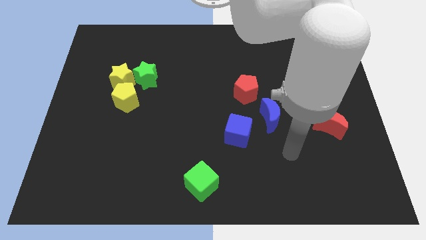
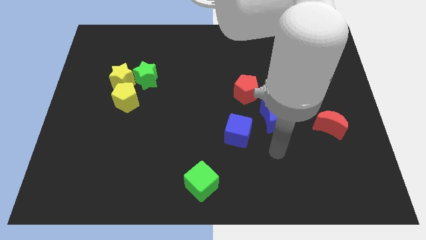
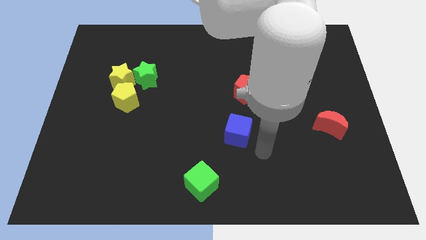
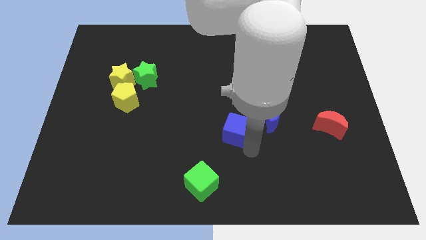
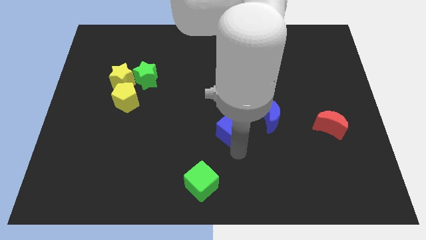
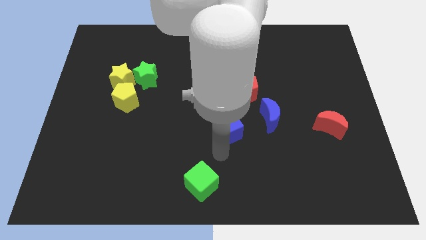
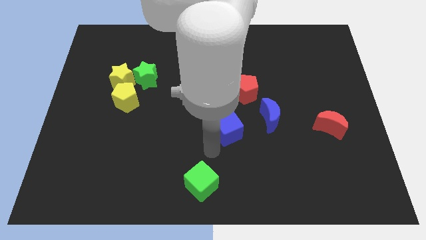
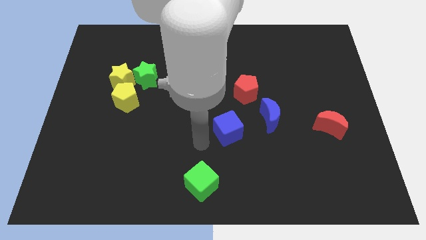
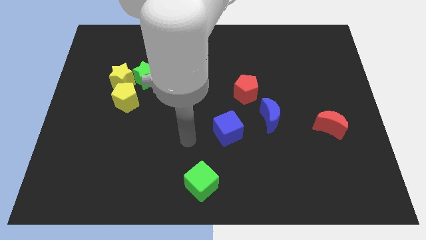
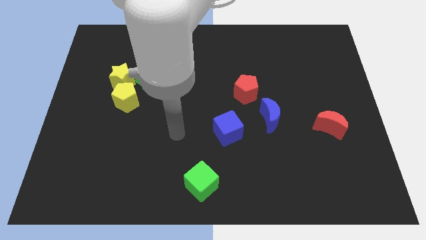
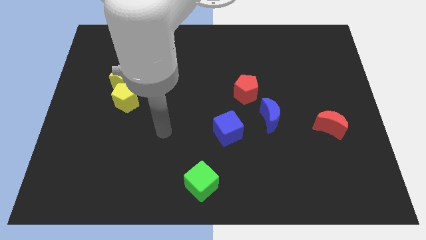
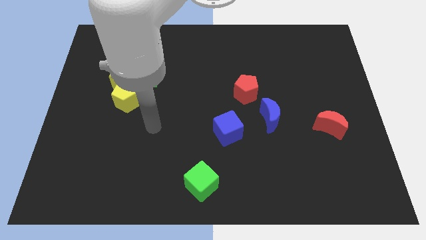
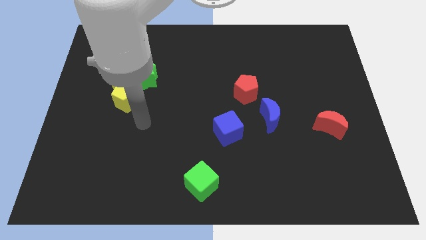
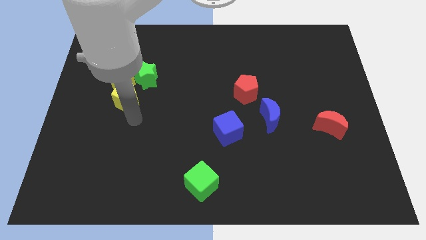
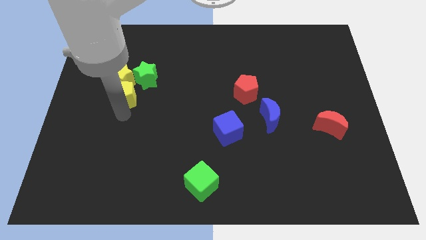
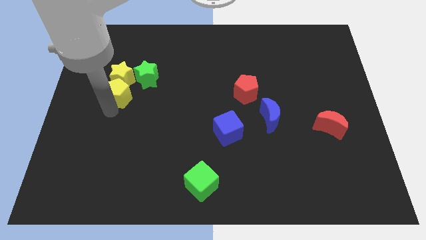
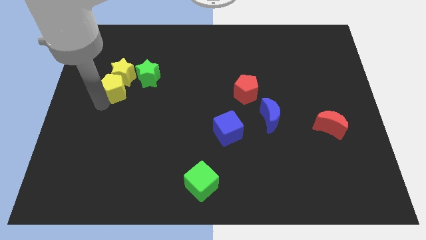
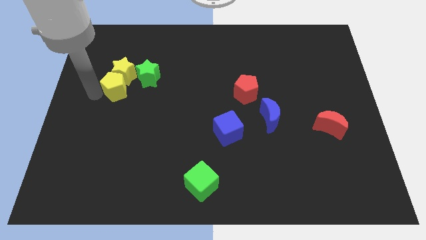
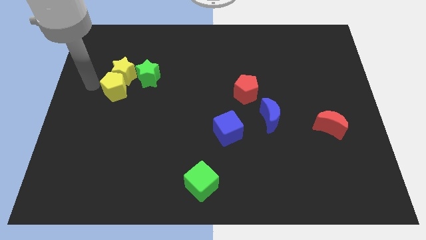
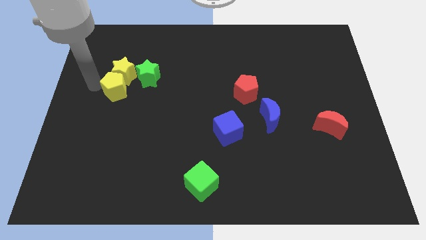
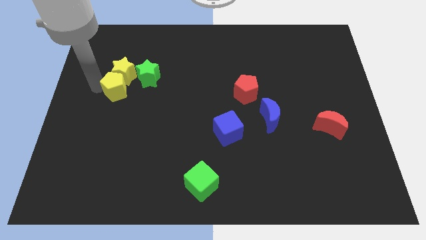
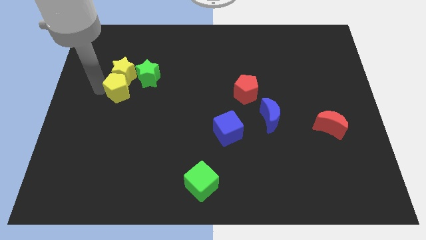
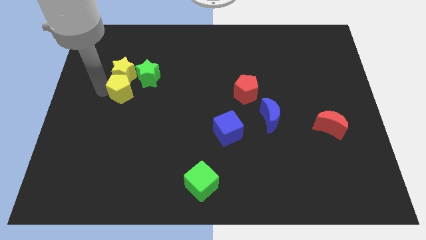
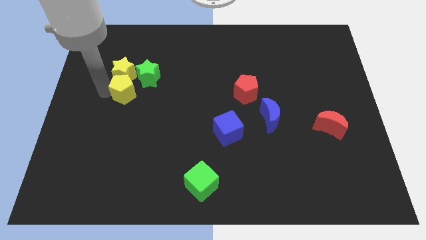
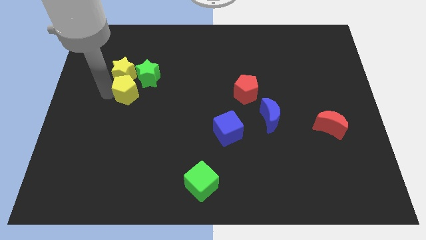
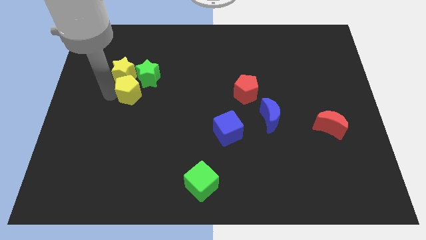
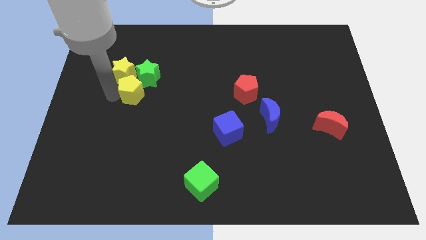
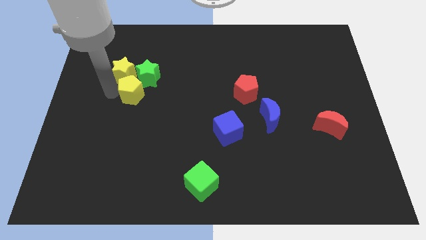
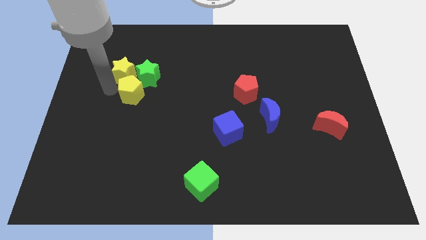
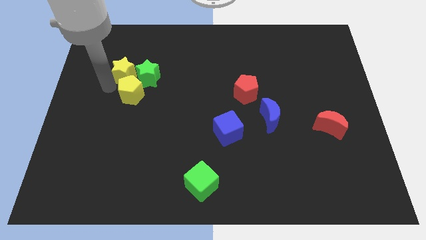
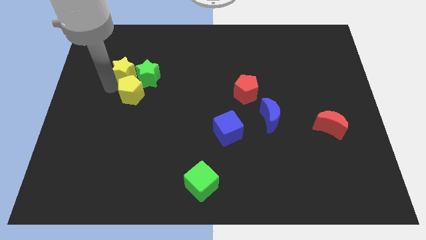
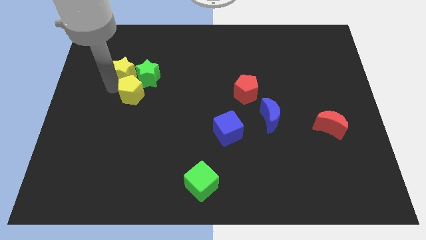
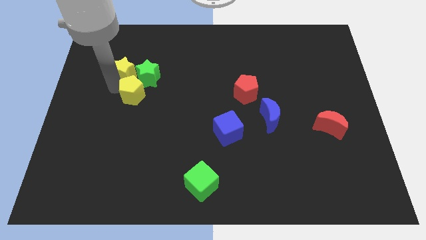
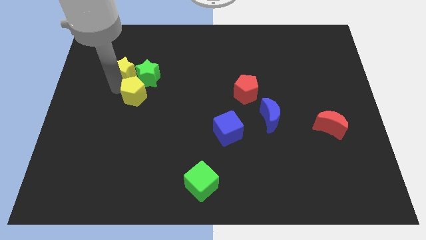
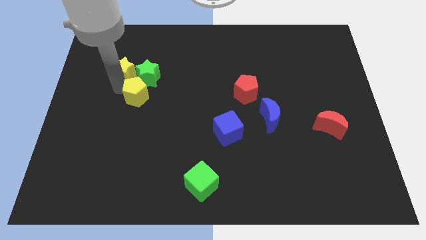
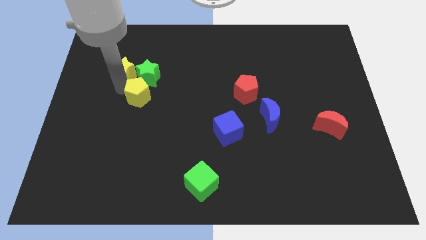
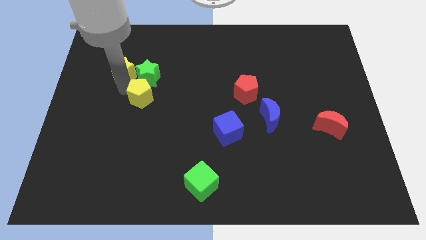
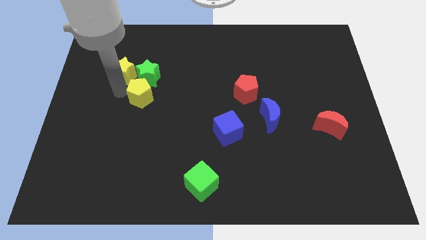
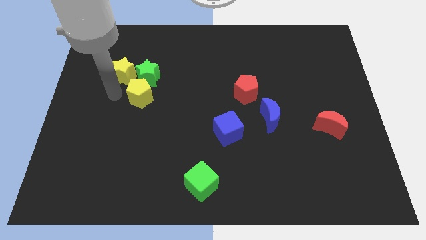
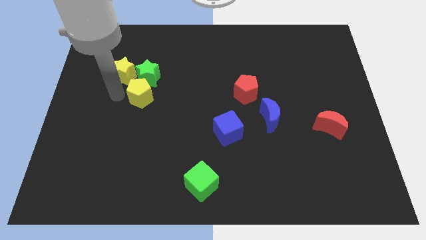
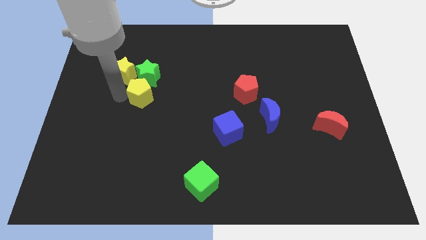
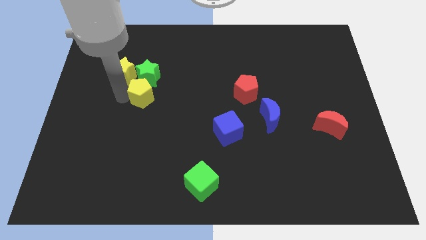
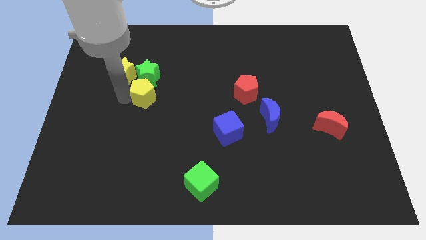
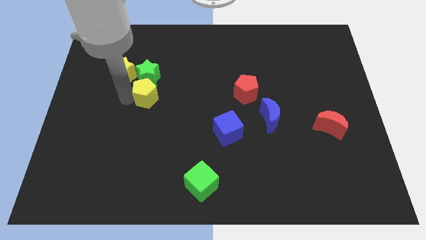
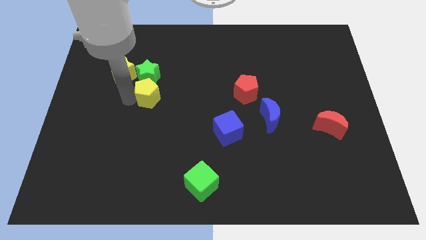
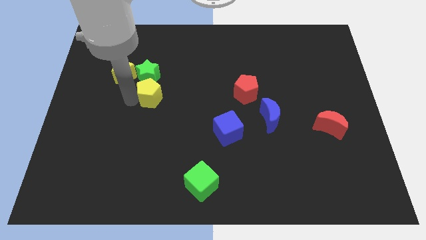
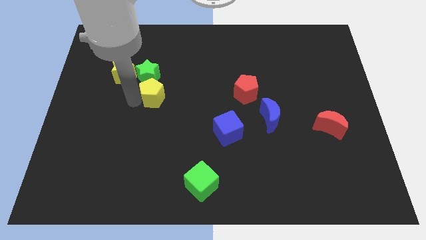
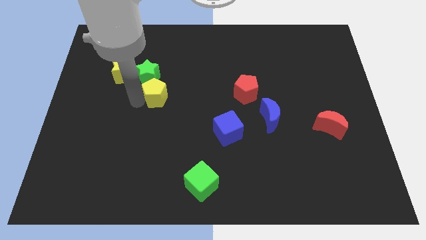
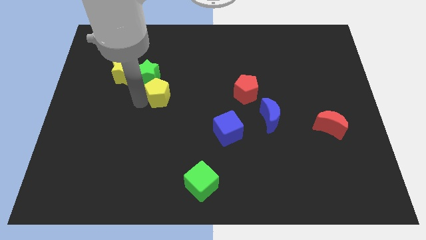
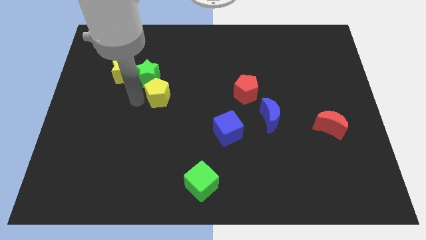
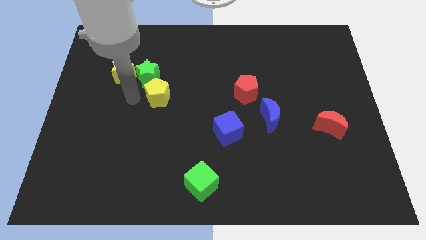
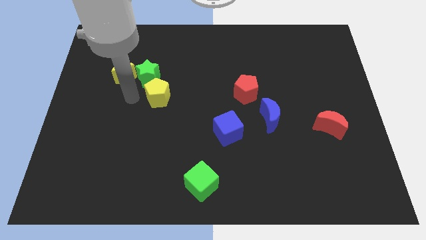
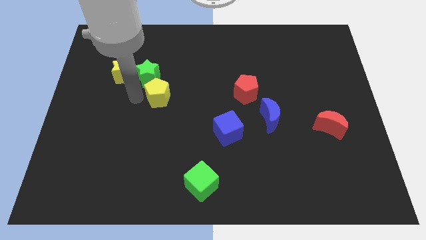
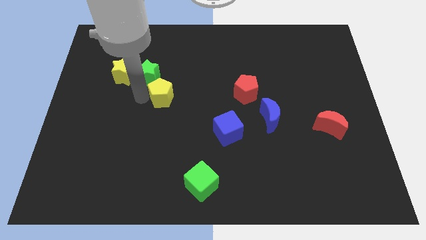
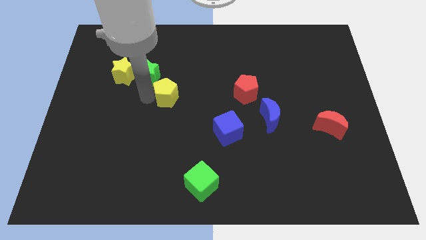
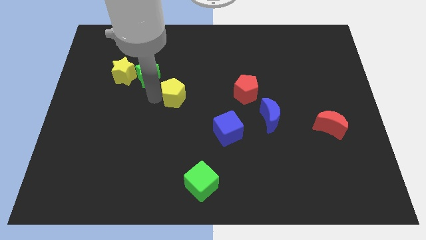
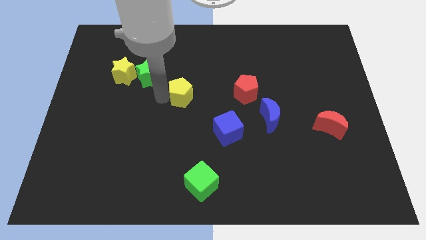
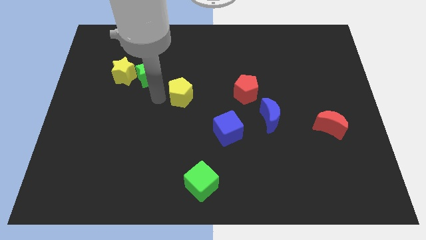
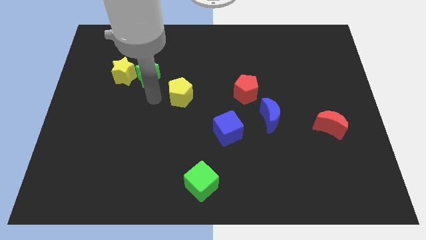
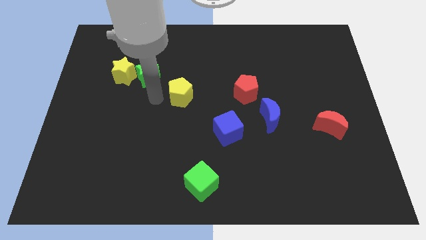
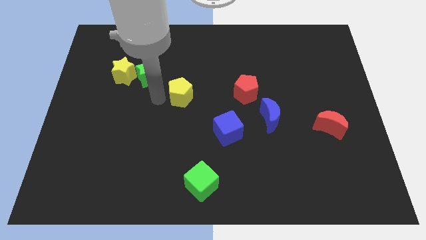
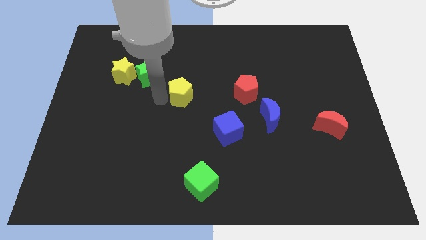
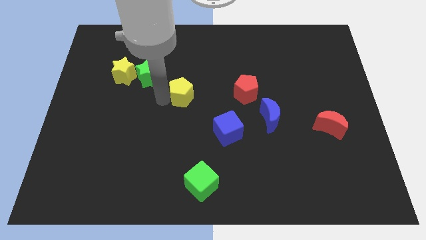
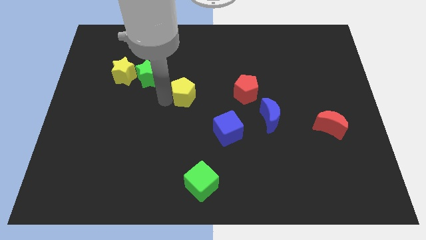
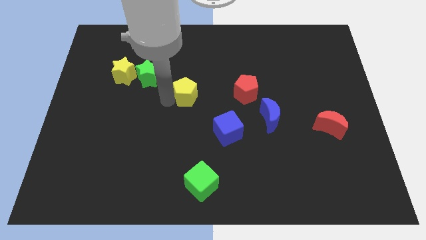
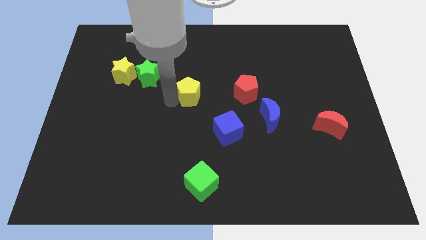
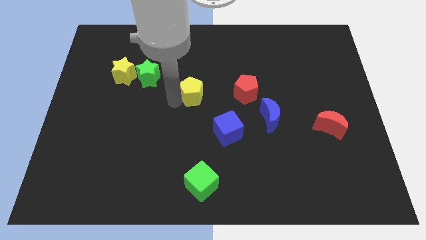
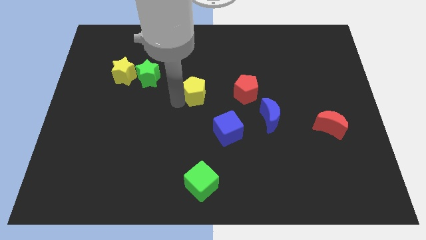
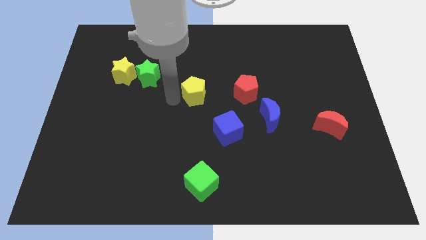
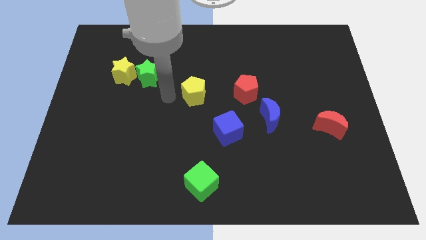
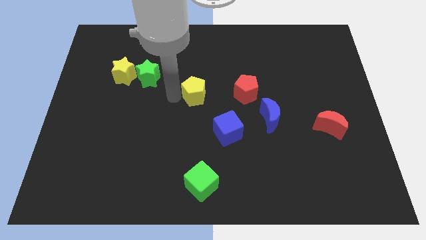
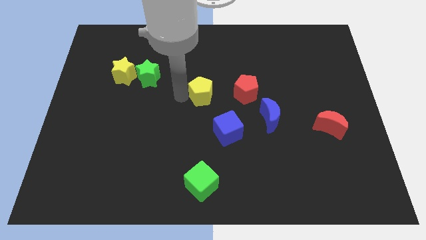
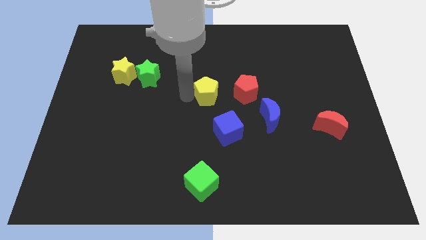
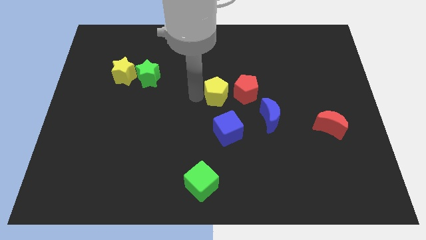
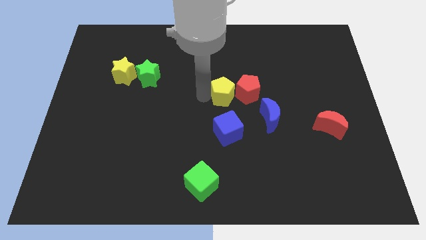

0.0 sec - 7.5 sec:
push the yellow pentagon close to the red pentagon
